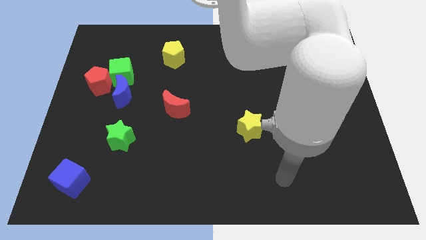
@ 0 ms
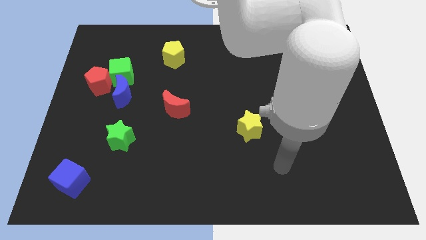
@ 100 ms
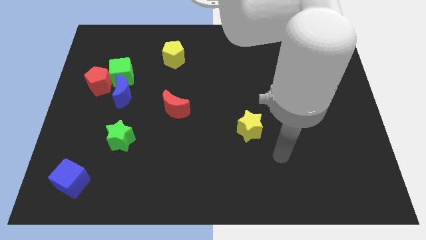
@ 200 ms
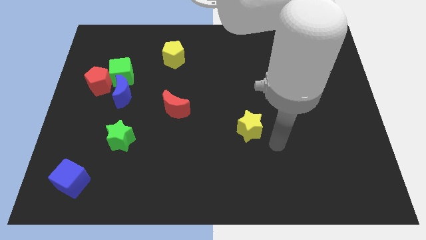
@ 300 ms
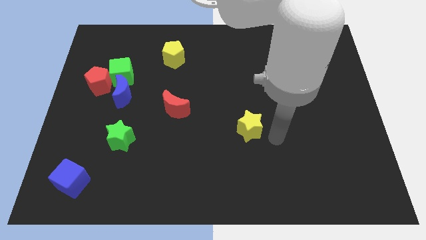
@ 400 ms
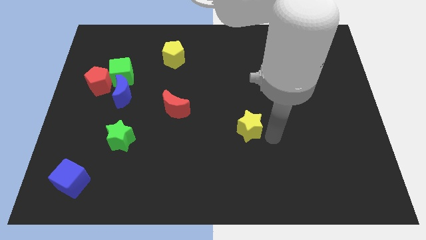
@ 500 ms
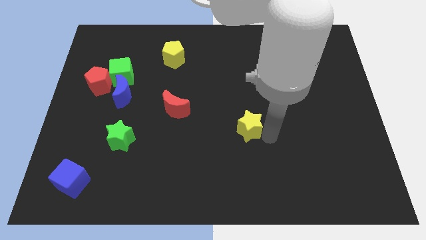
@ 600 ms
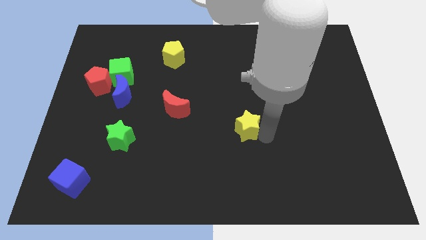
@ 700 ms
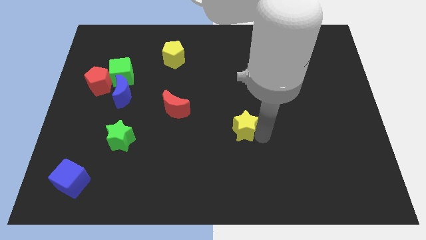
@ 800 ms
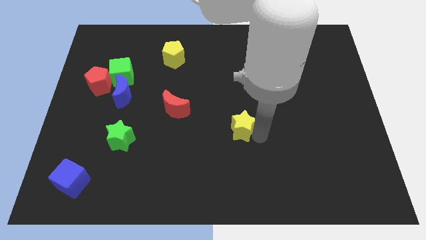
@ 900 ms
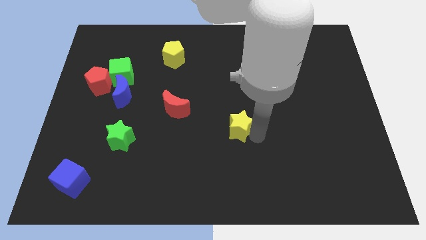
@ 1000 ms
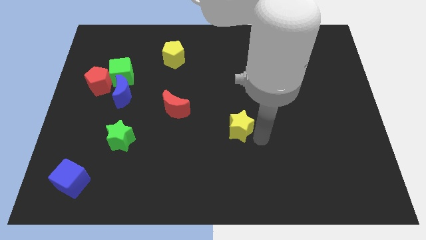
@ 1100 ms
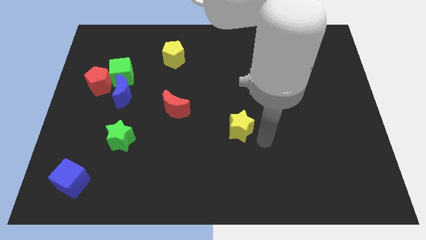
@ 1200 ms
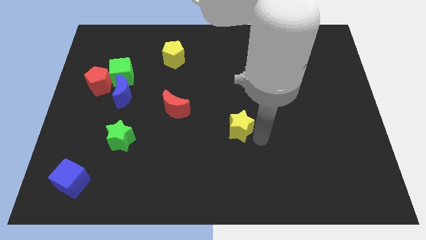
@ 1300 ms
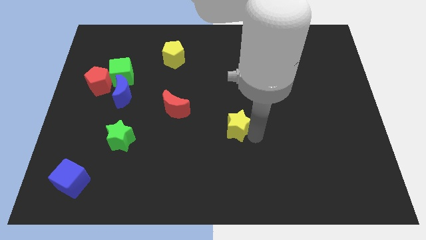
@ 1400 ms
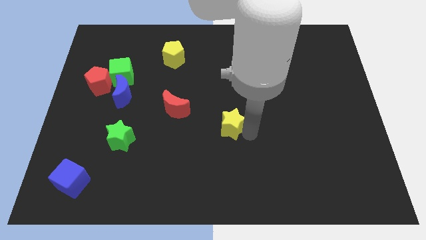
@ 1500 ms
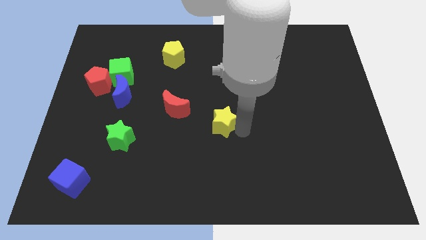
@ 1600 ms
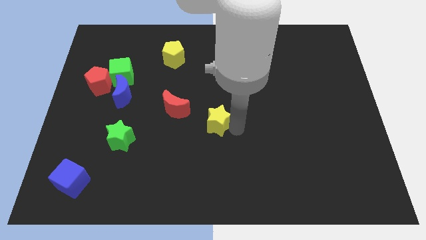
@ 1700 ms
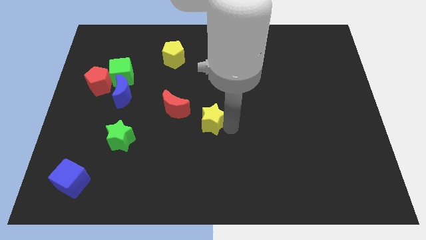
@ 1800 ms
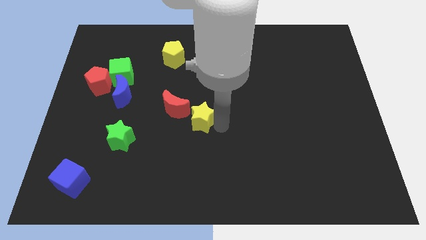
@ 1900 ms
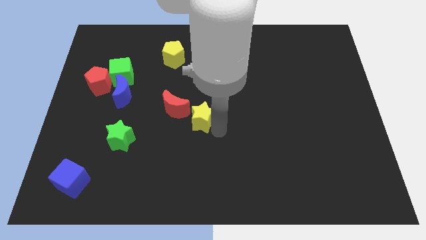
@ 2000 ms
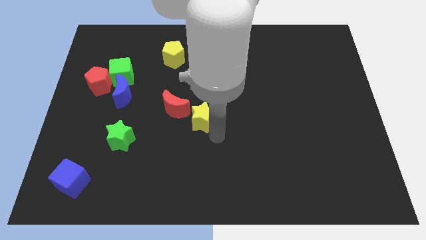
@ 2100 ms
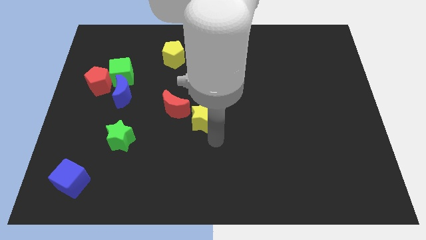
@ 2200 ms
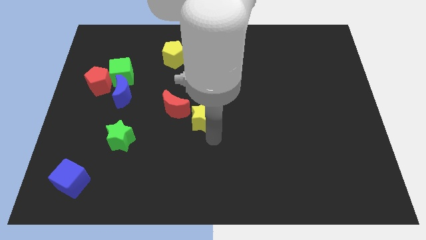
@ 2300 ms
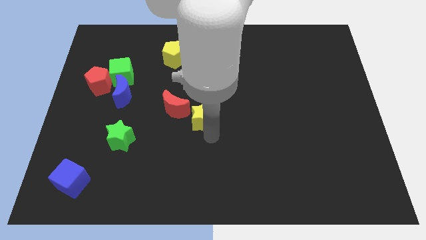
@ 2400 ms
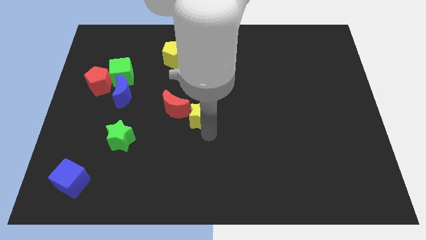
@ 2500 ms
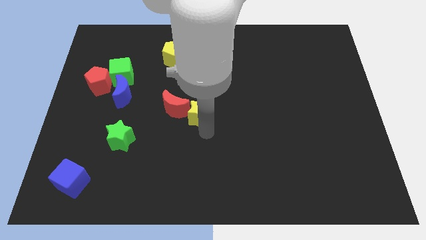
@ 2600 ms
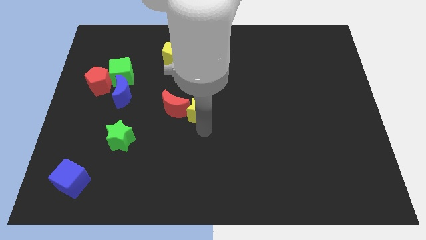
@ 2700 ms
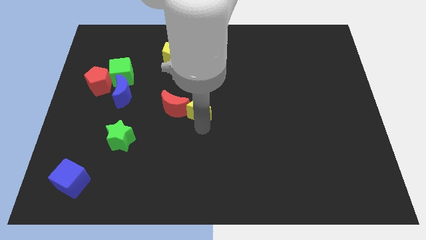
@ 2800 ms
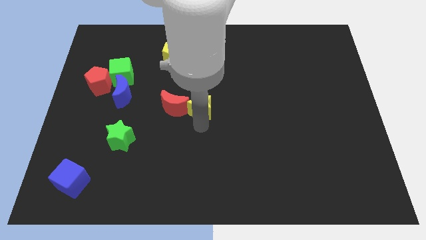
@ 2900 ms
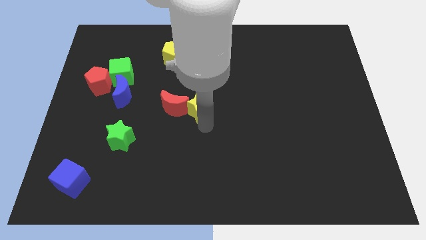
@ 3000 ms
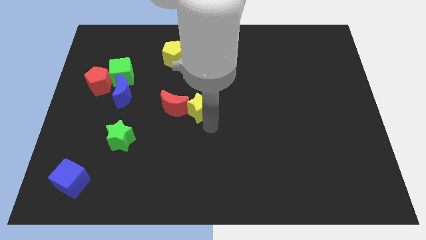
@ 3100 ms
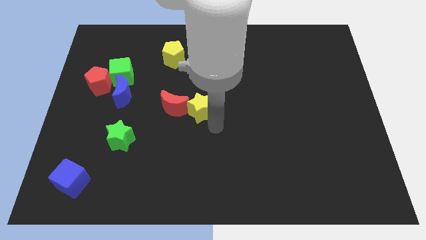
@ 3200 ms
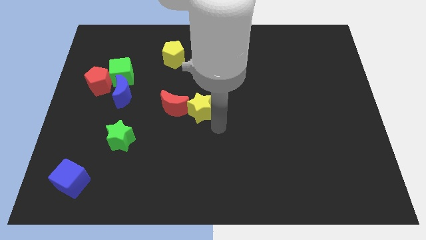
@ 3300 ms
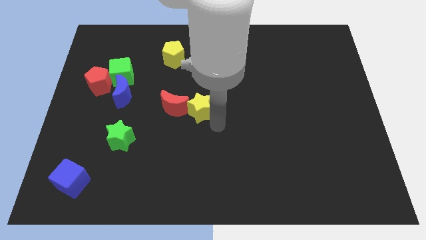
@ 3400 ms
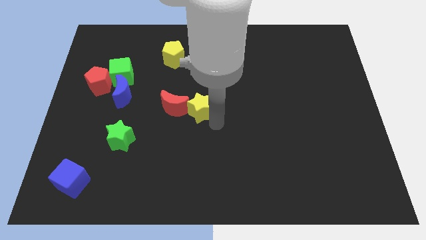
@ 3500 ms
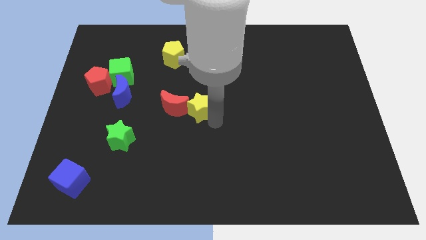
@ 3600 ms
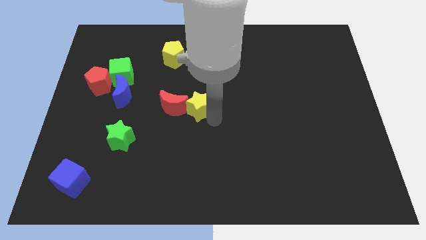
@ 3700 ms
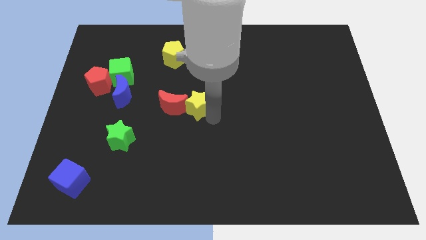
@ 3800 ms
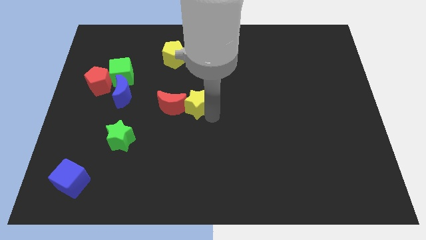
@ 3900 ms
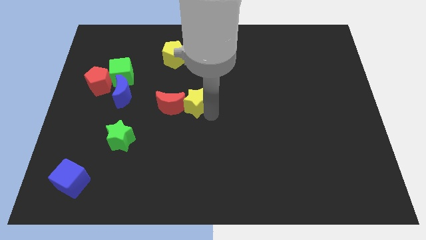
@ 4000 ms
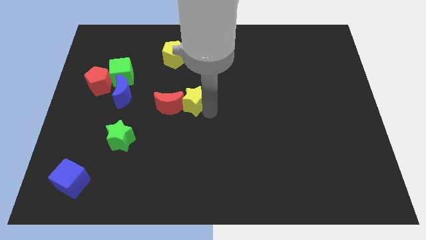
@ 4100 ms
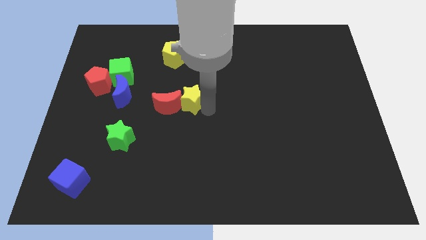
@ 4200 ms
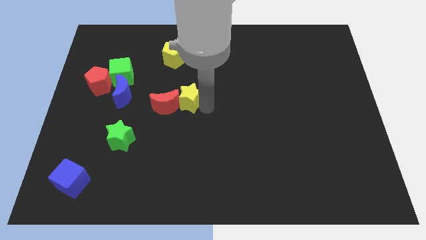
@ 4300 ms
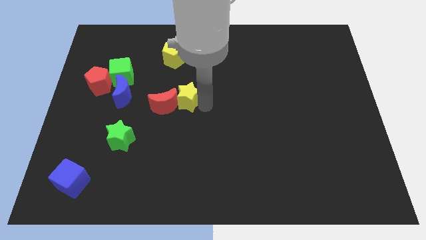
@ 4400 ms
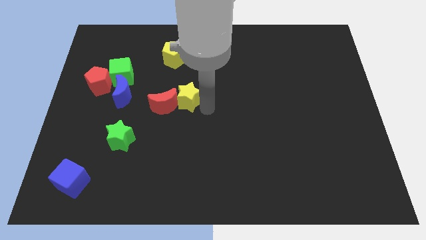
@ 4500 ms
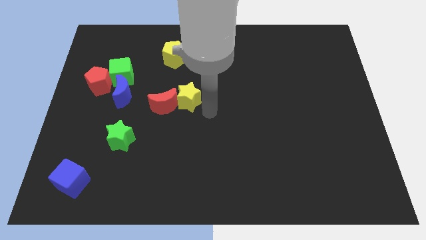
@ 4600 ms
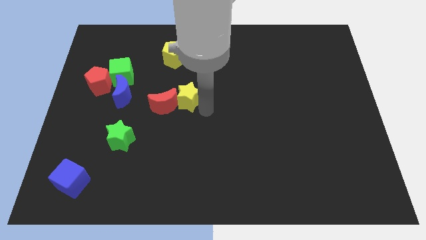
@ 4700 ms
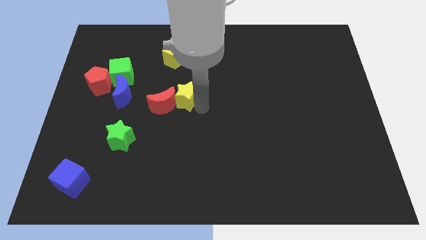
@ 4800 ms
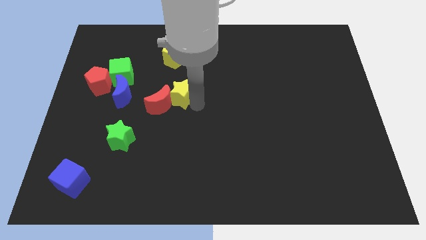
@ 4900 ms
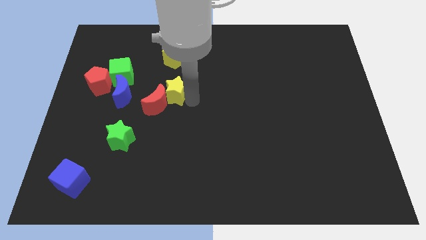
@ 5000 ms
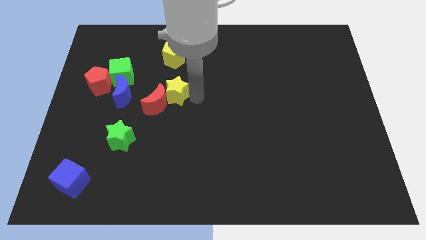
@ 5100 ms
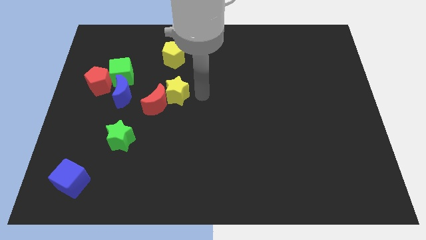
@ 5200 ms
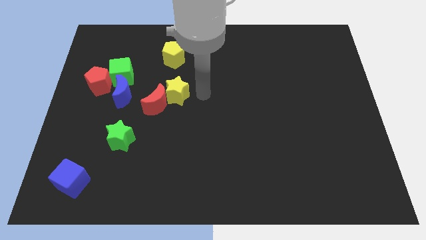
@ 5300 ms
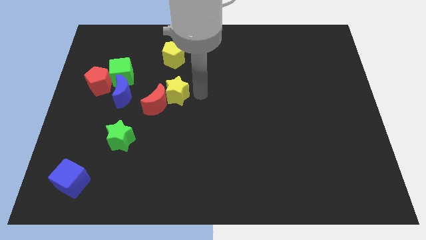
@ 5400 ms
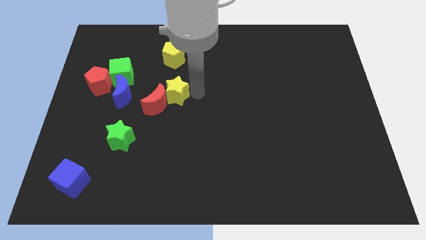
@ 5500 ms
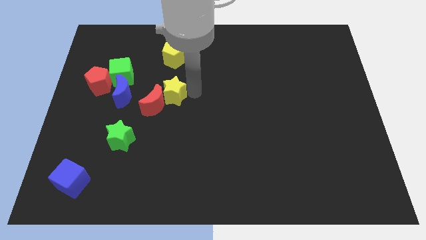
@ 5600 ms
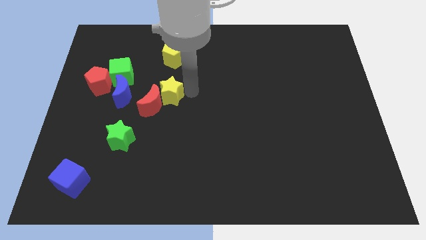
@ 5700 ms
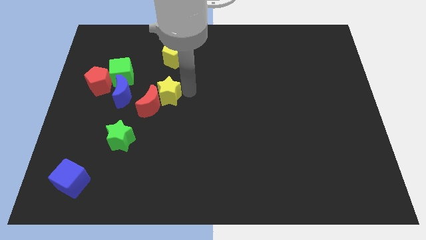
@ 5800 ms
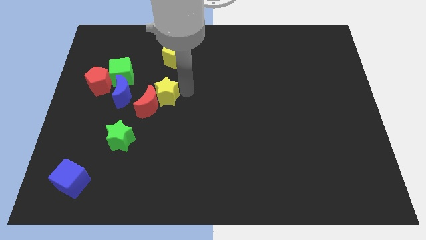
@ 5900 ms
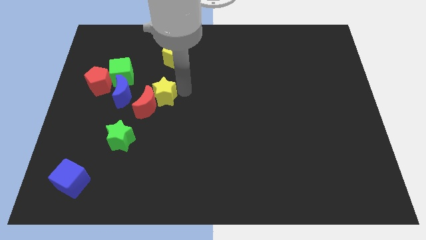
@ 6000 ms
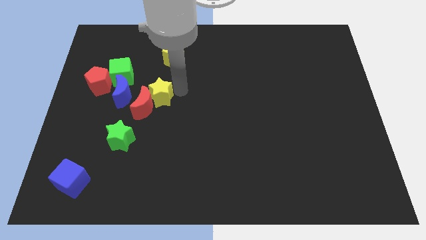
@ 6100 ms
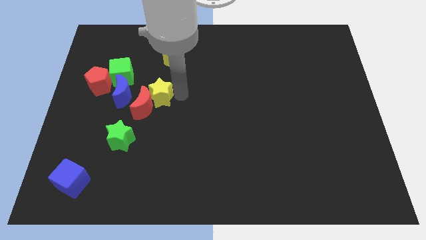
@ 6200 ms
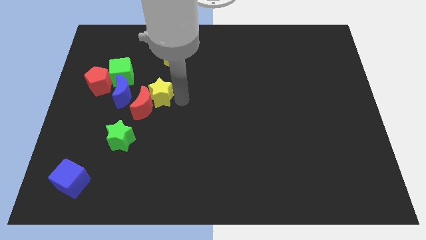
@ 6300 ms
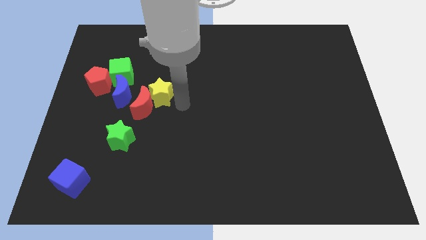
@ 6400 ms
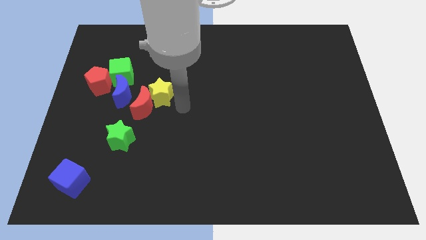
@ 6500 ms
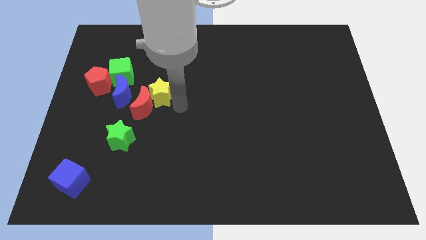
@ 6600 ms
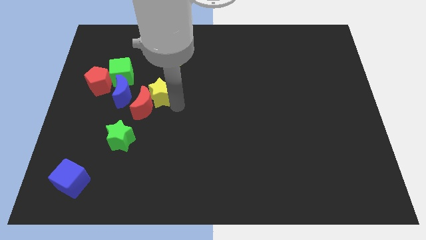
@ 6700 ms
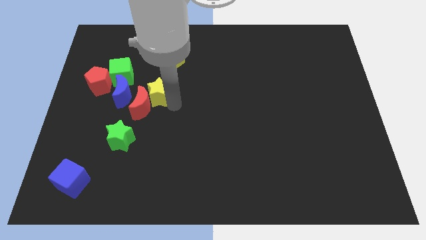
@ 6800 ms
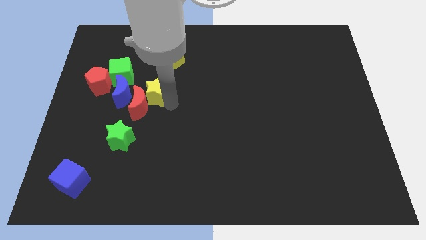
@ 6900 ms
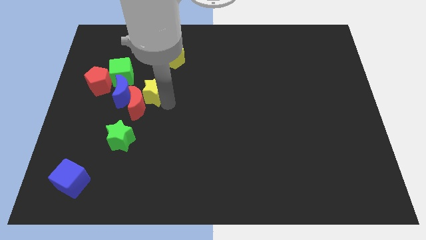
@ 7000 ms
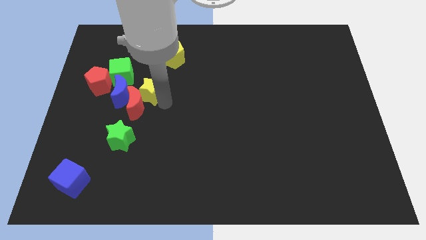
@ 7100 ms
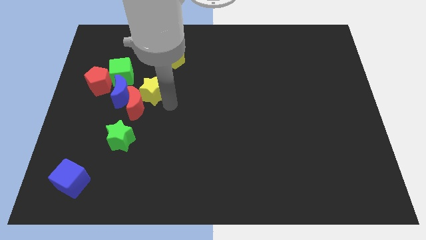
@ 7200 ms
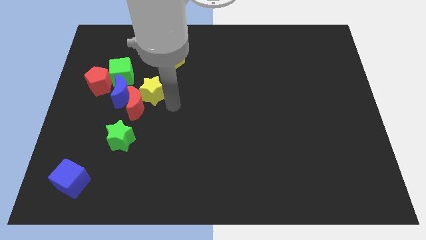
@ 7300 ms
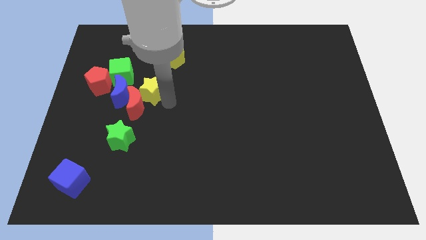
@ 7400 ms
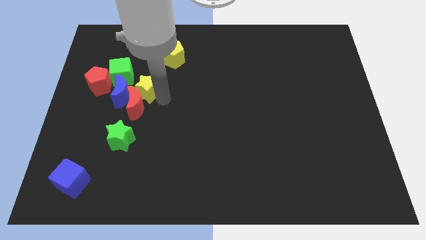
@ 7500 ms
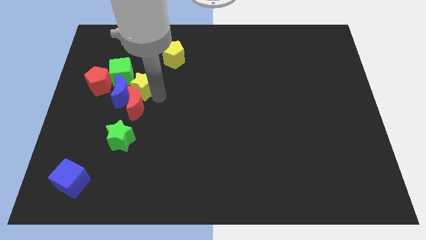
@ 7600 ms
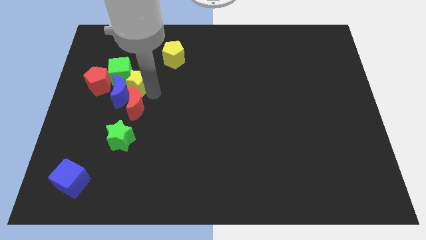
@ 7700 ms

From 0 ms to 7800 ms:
move the yellow star next to the green cube
